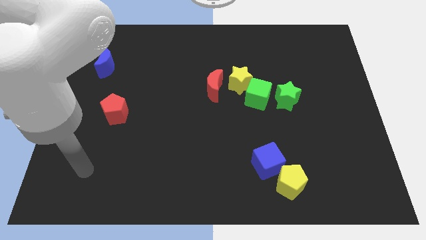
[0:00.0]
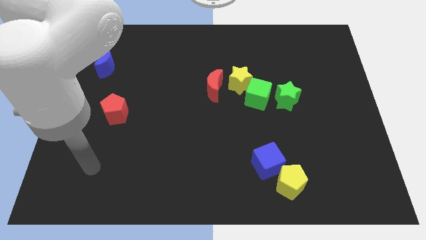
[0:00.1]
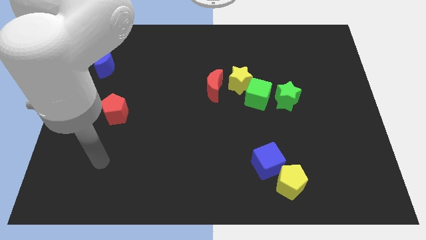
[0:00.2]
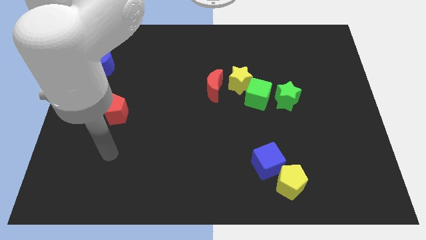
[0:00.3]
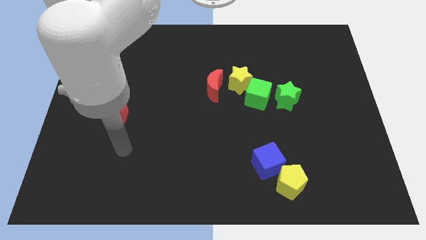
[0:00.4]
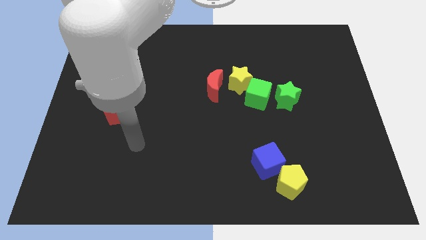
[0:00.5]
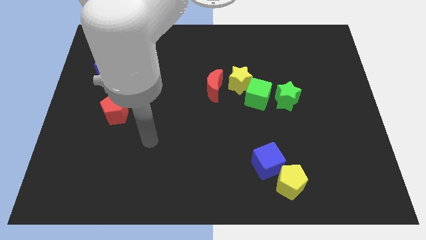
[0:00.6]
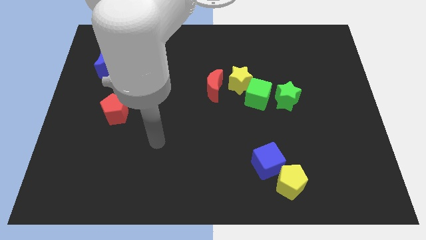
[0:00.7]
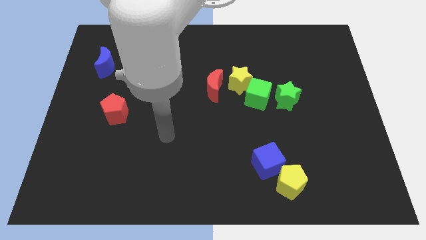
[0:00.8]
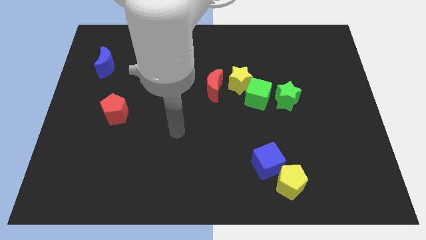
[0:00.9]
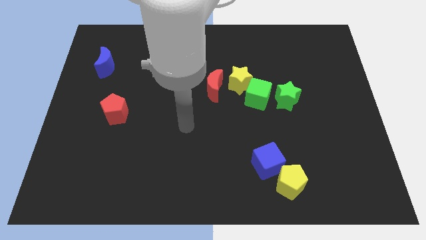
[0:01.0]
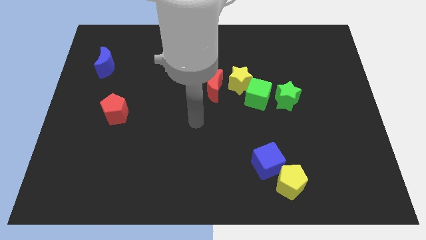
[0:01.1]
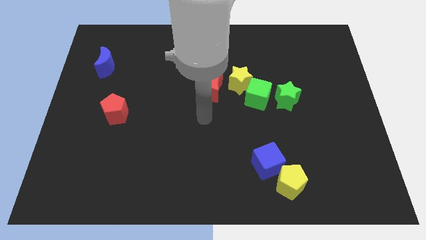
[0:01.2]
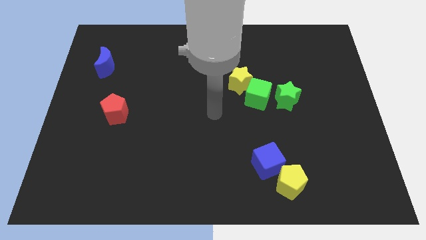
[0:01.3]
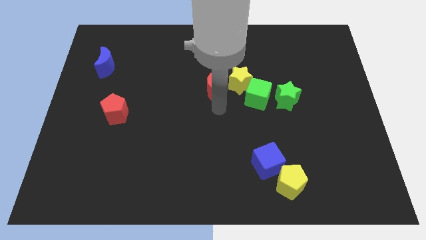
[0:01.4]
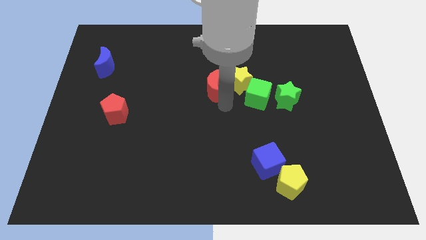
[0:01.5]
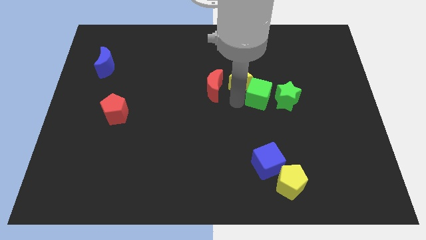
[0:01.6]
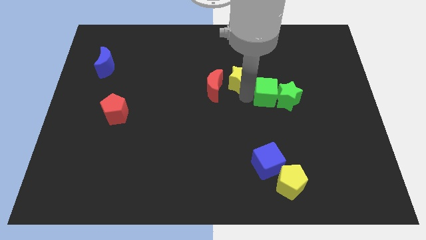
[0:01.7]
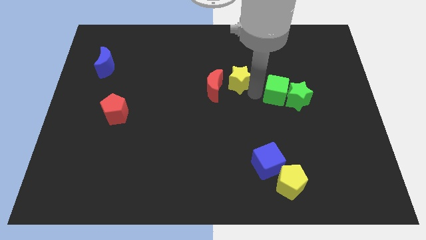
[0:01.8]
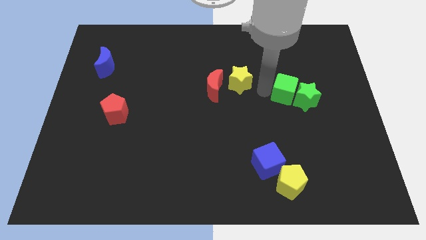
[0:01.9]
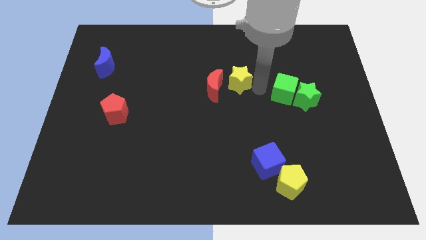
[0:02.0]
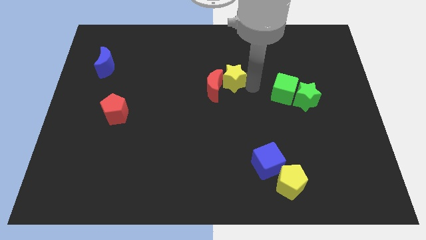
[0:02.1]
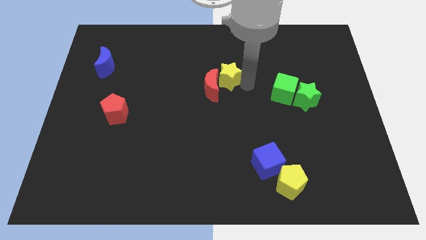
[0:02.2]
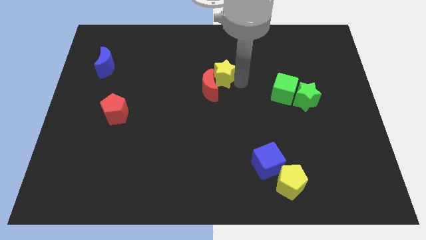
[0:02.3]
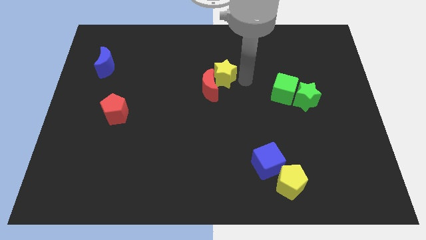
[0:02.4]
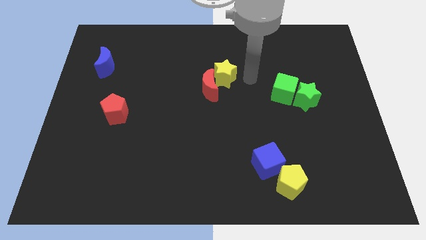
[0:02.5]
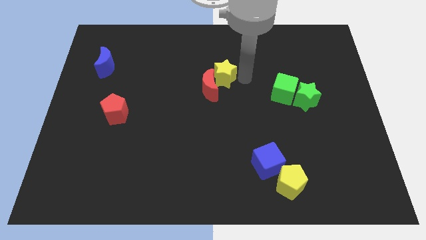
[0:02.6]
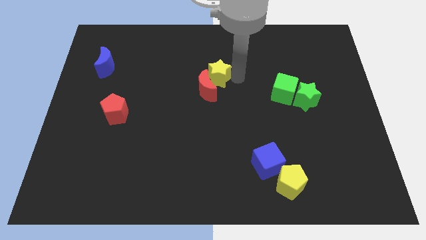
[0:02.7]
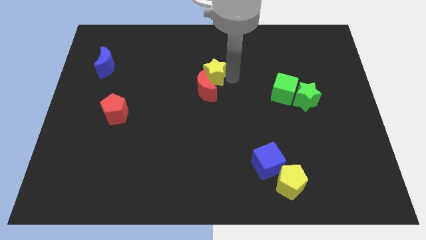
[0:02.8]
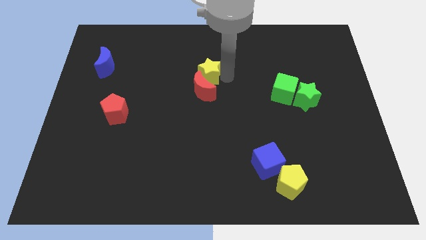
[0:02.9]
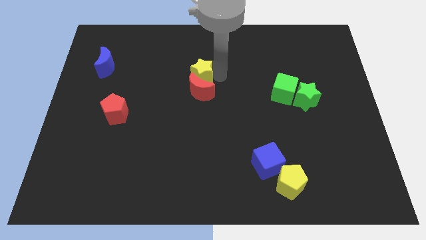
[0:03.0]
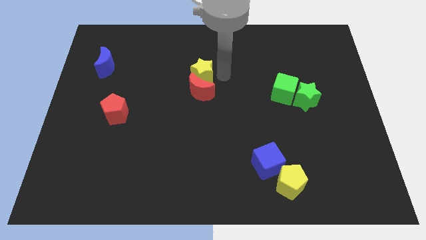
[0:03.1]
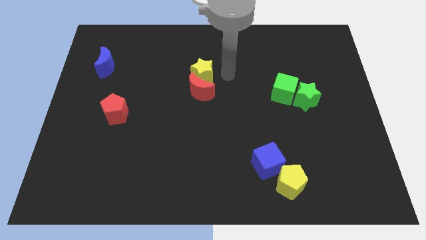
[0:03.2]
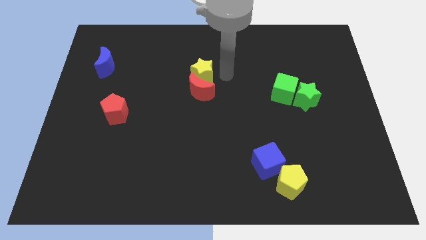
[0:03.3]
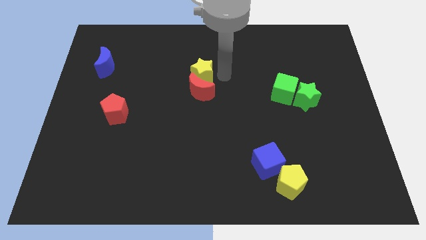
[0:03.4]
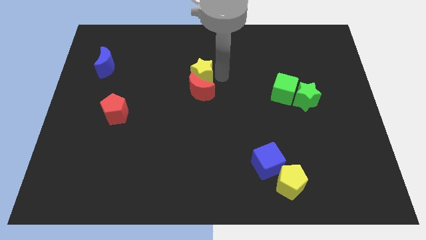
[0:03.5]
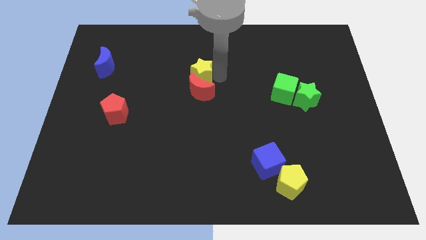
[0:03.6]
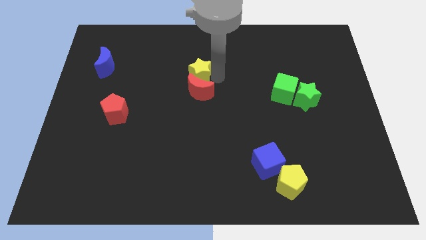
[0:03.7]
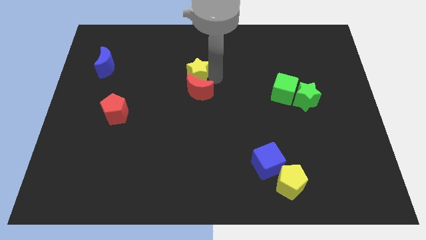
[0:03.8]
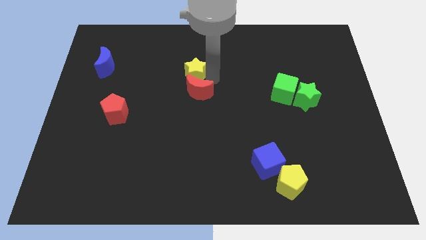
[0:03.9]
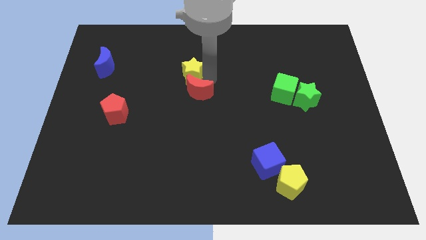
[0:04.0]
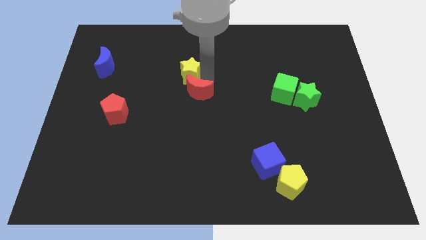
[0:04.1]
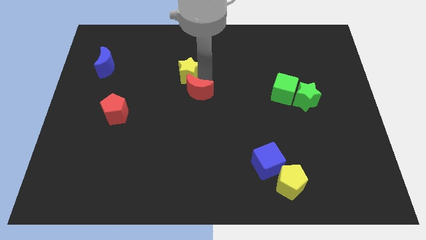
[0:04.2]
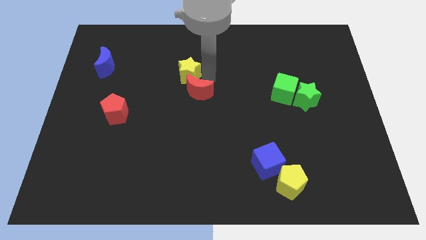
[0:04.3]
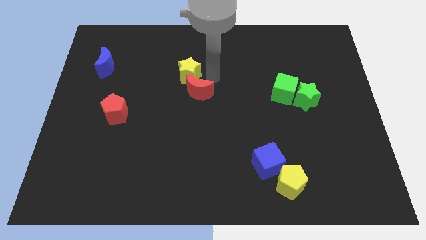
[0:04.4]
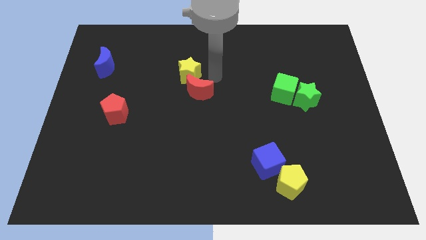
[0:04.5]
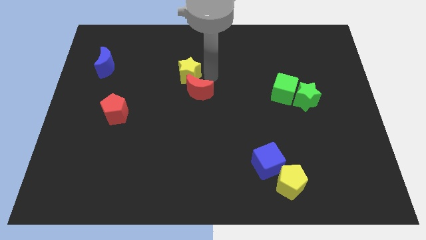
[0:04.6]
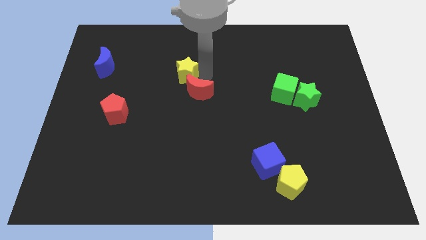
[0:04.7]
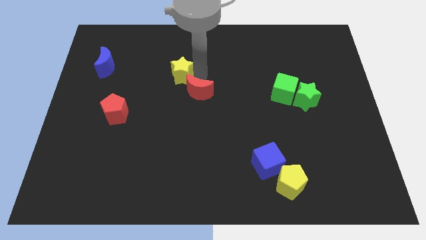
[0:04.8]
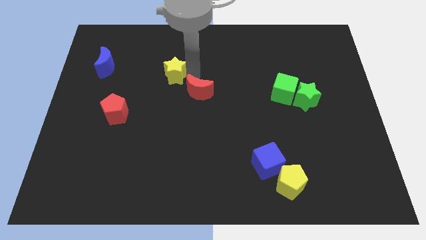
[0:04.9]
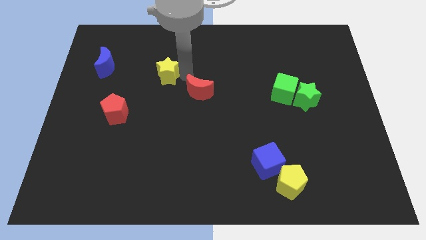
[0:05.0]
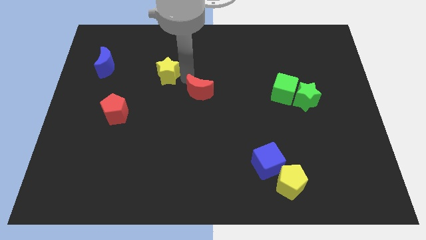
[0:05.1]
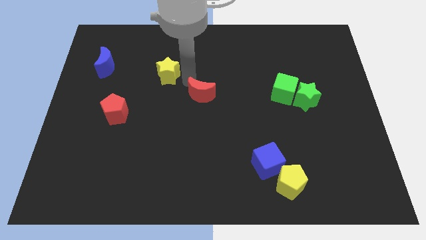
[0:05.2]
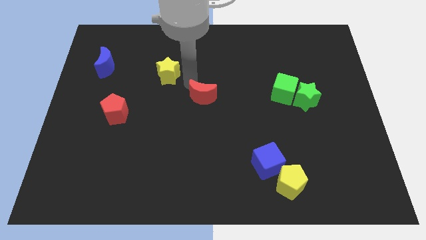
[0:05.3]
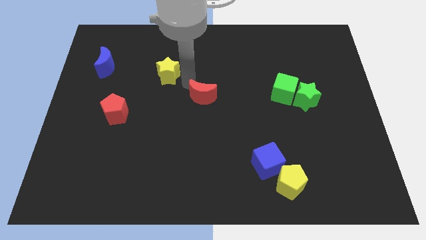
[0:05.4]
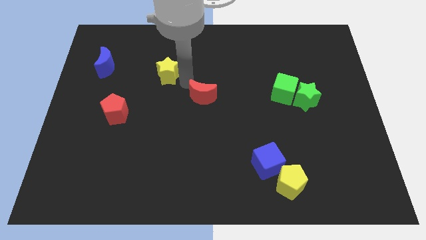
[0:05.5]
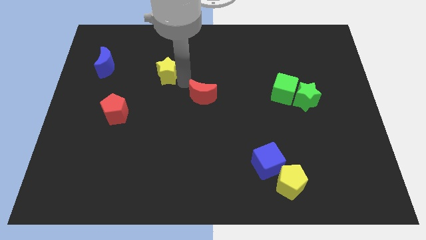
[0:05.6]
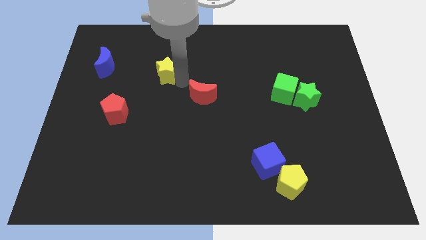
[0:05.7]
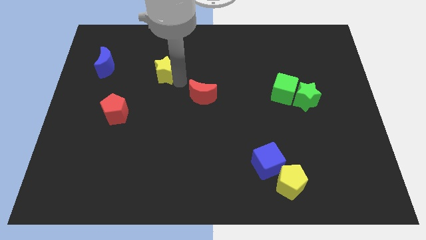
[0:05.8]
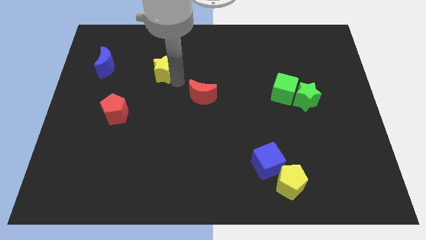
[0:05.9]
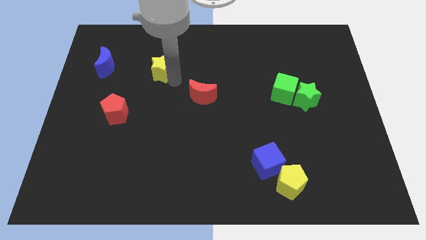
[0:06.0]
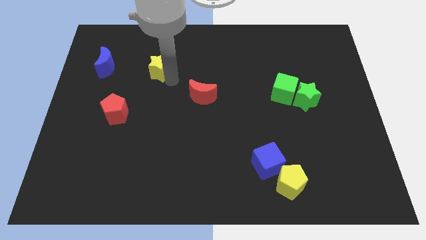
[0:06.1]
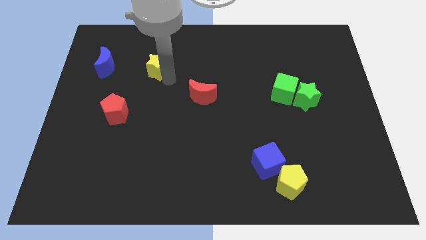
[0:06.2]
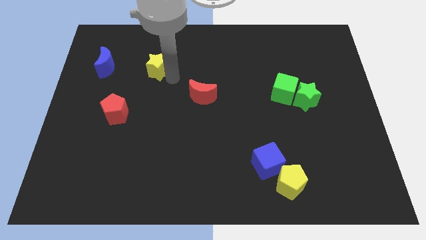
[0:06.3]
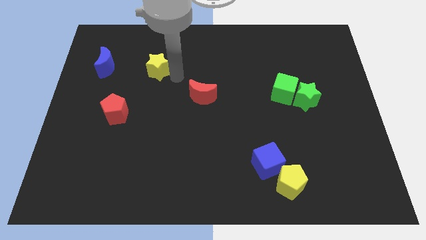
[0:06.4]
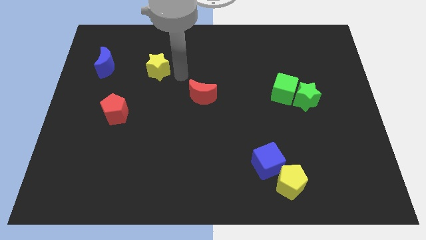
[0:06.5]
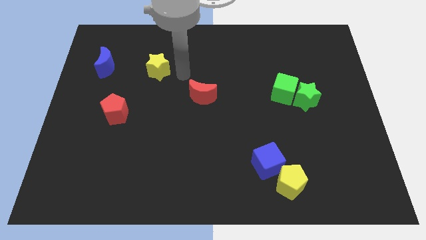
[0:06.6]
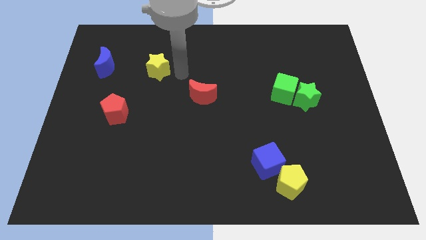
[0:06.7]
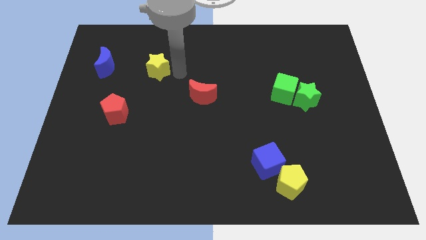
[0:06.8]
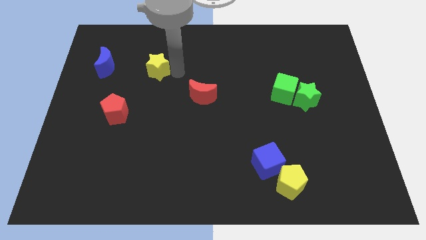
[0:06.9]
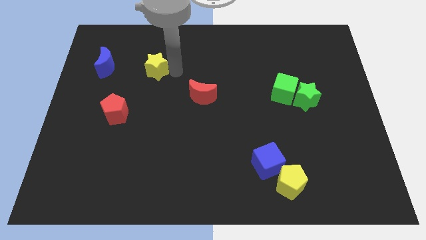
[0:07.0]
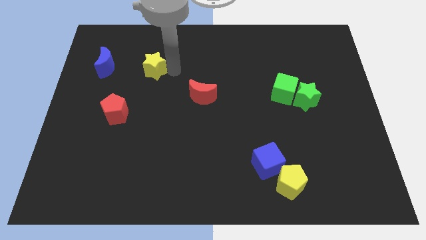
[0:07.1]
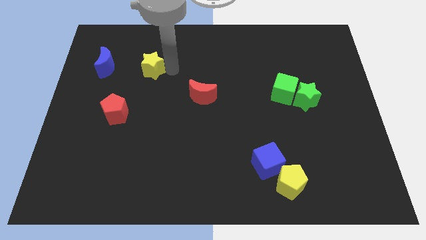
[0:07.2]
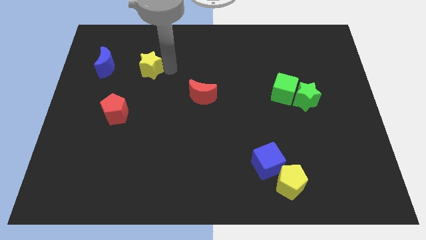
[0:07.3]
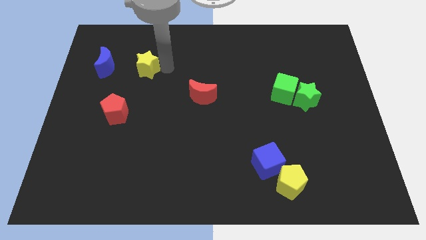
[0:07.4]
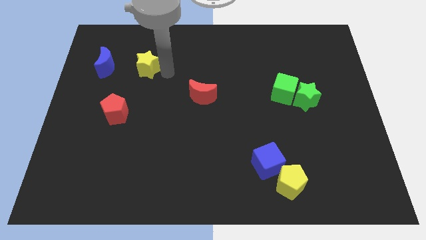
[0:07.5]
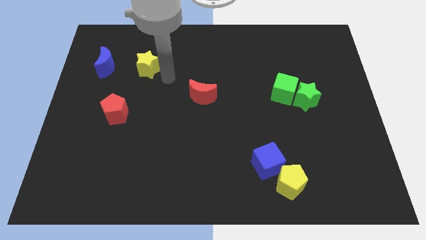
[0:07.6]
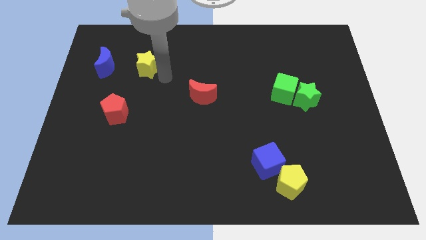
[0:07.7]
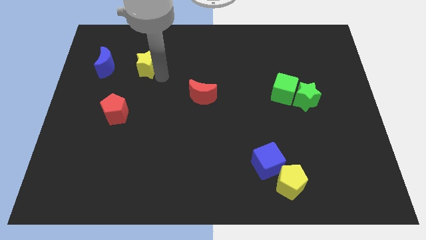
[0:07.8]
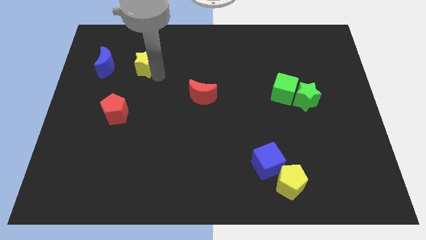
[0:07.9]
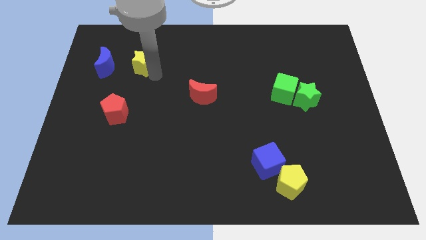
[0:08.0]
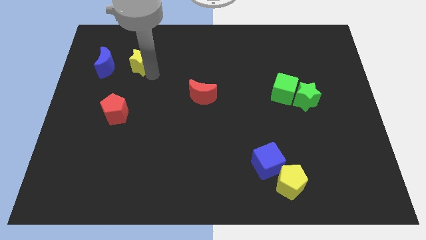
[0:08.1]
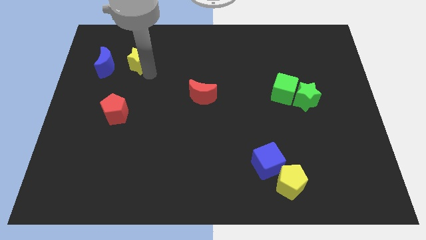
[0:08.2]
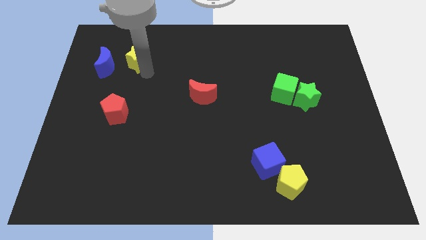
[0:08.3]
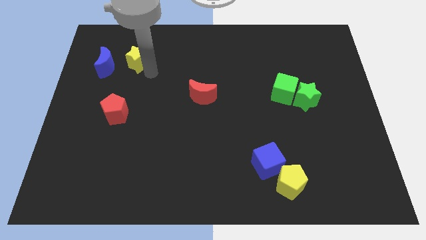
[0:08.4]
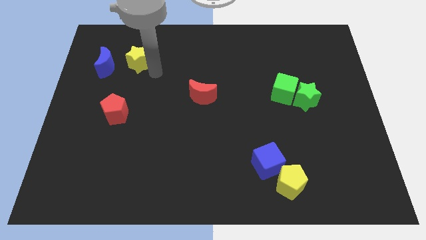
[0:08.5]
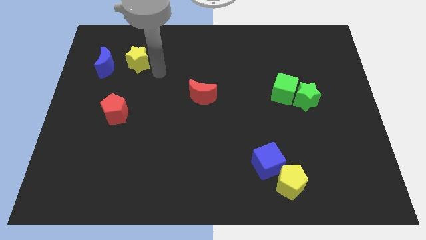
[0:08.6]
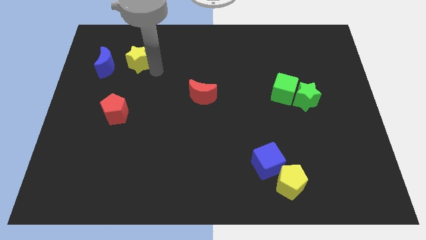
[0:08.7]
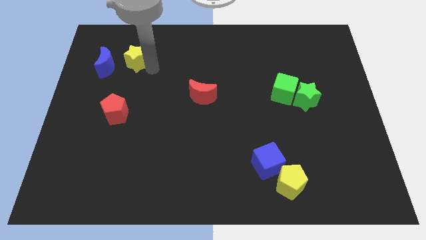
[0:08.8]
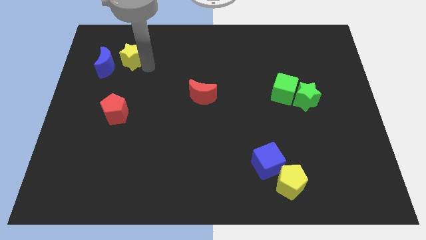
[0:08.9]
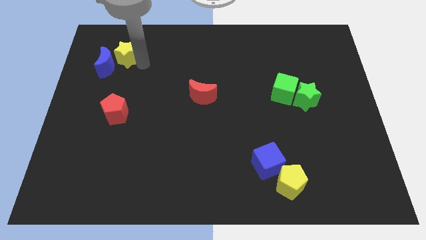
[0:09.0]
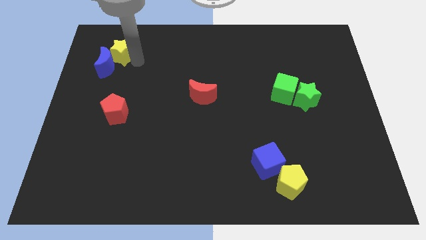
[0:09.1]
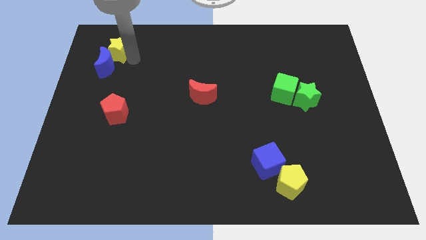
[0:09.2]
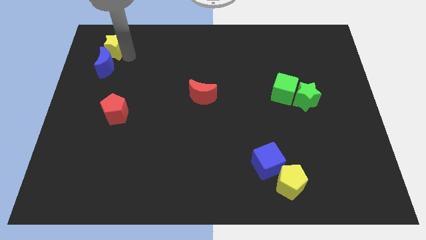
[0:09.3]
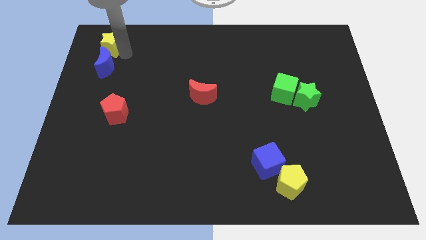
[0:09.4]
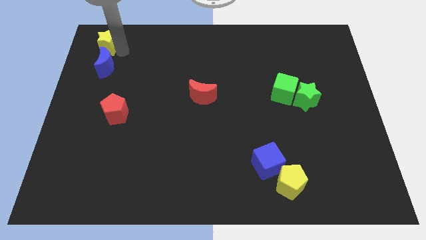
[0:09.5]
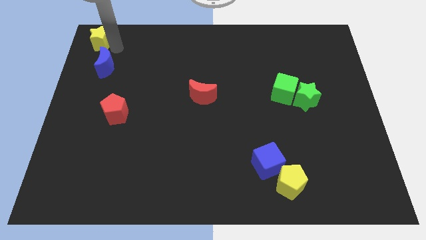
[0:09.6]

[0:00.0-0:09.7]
put the yellow star to the top left corner
